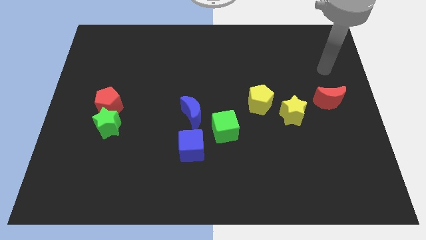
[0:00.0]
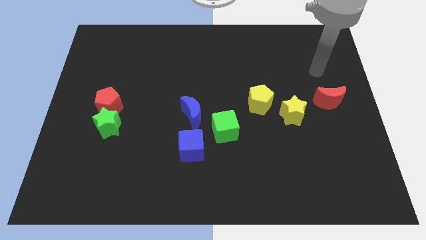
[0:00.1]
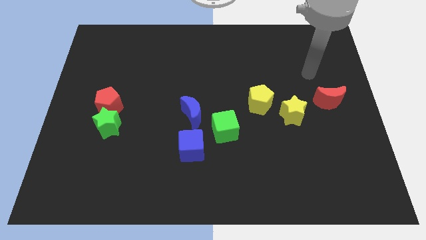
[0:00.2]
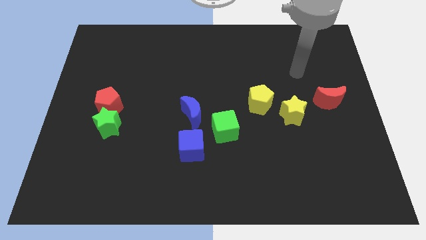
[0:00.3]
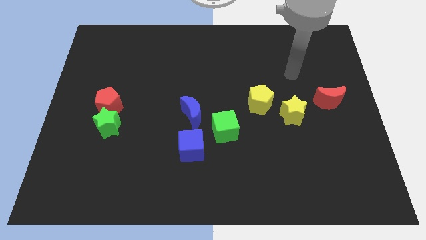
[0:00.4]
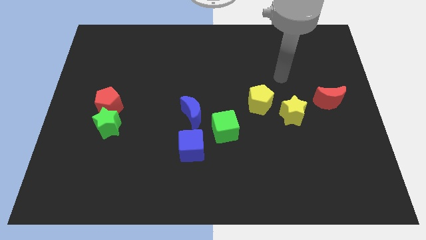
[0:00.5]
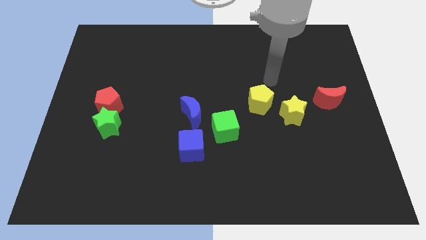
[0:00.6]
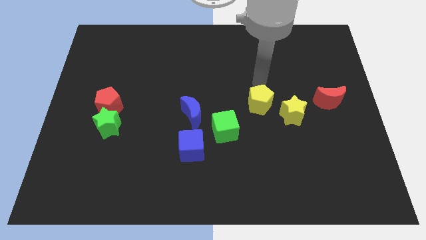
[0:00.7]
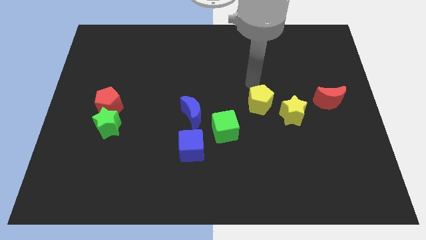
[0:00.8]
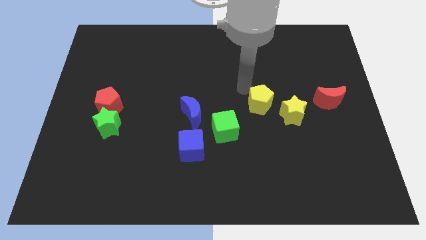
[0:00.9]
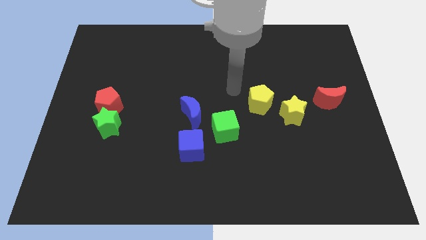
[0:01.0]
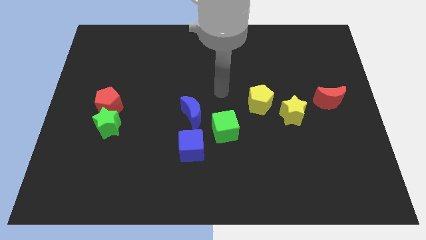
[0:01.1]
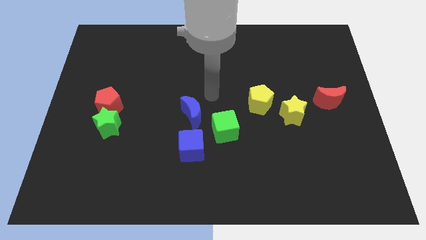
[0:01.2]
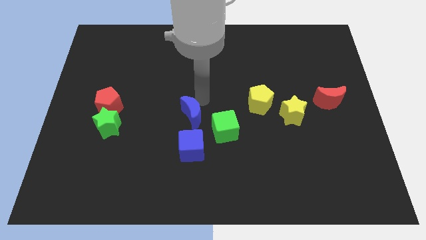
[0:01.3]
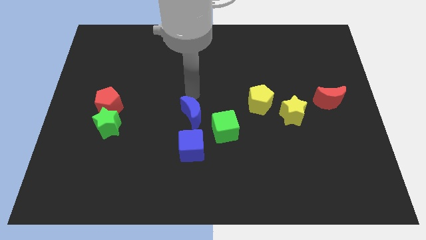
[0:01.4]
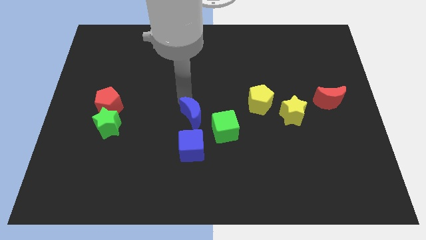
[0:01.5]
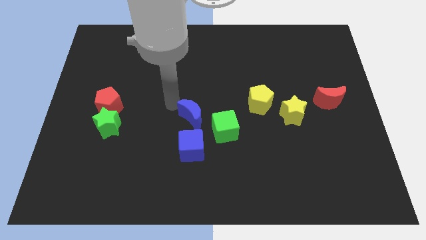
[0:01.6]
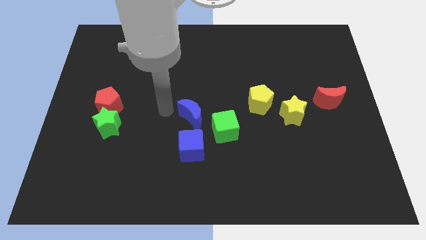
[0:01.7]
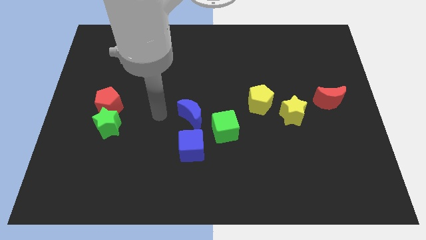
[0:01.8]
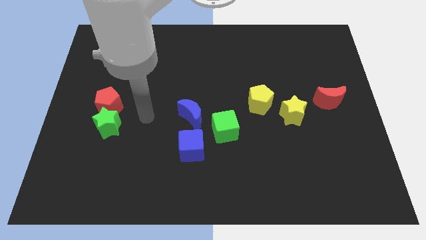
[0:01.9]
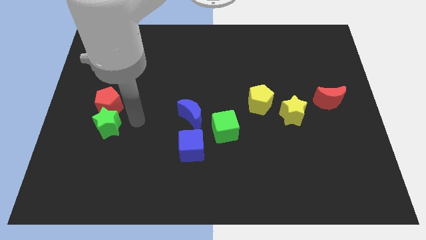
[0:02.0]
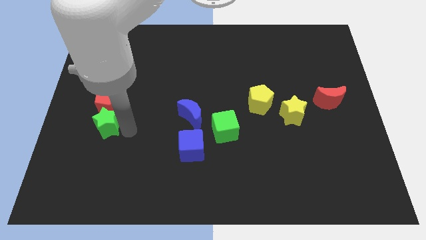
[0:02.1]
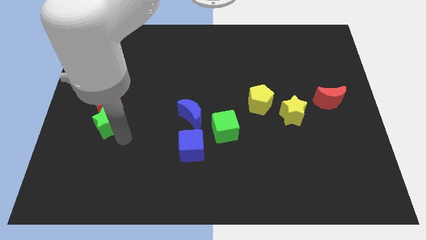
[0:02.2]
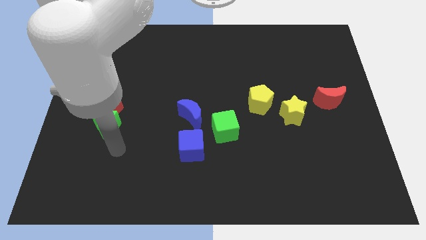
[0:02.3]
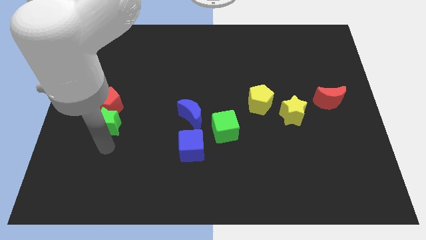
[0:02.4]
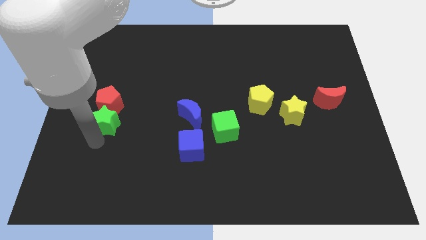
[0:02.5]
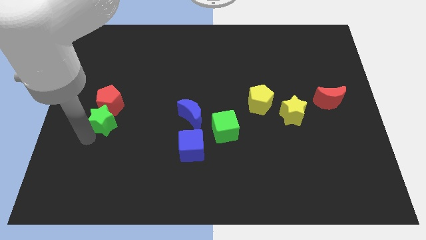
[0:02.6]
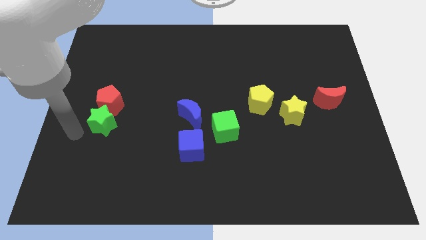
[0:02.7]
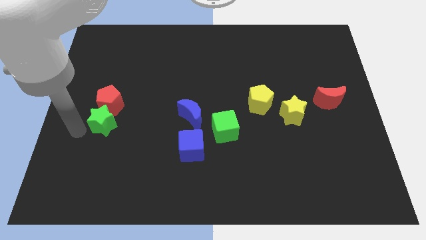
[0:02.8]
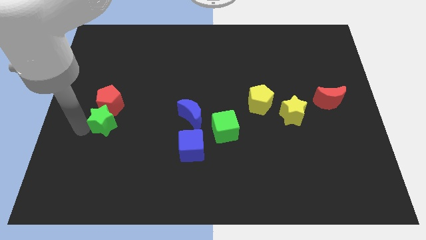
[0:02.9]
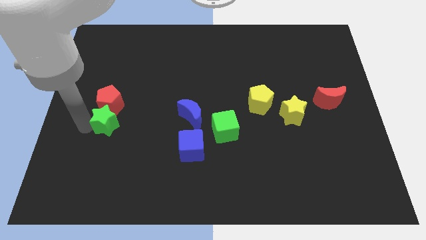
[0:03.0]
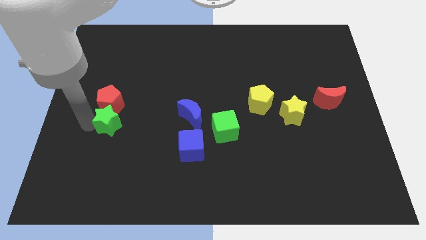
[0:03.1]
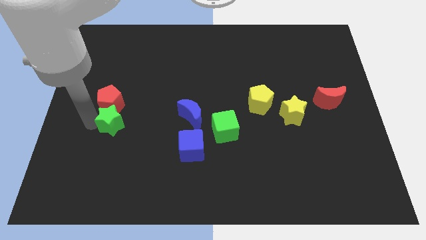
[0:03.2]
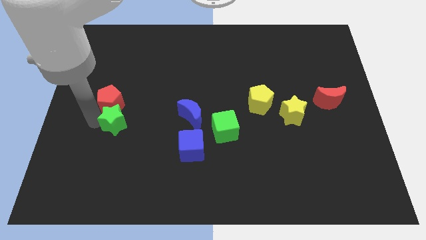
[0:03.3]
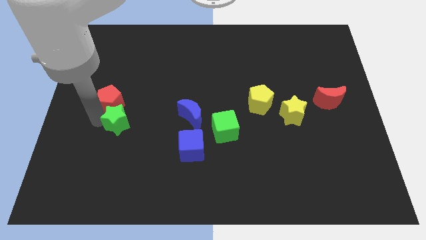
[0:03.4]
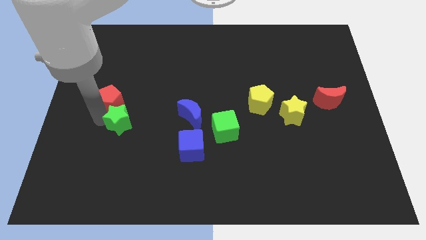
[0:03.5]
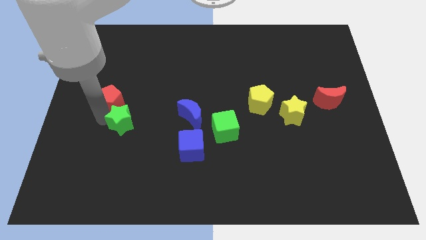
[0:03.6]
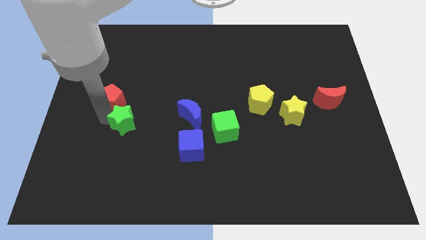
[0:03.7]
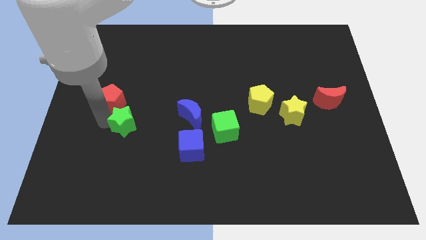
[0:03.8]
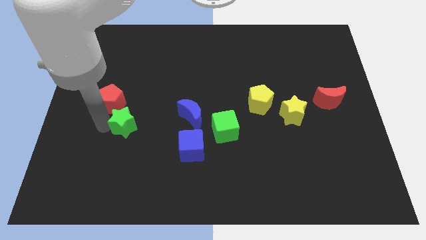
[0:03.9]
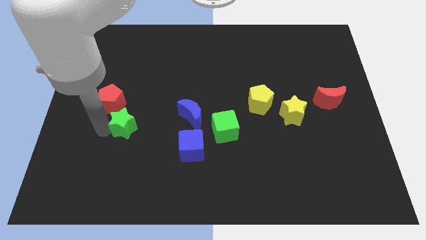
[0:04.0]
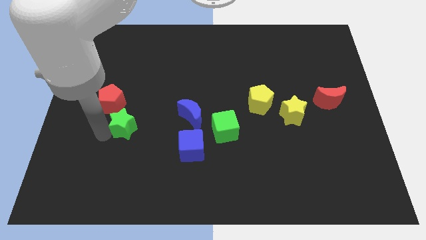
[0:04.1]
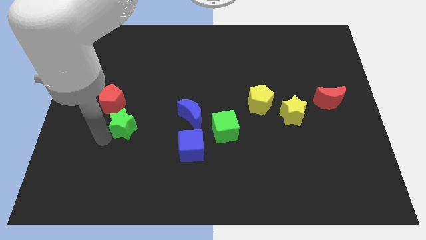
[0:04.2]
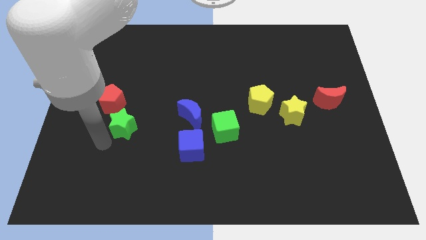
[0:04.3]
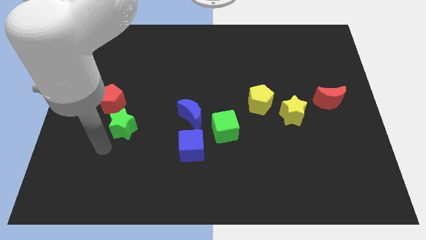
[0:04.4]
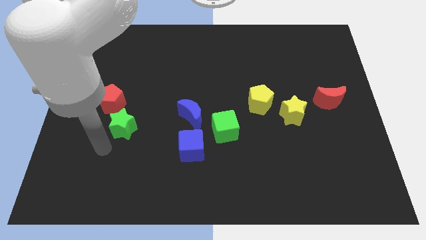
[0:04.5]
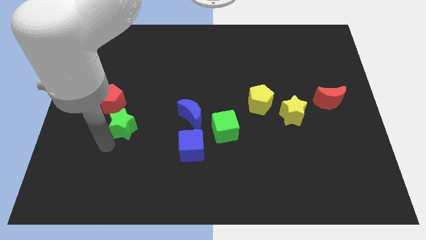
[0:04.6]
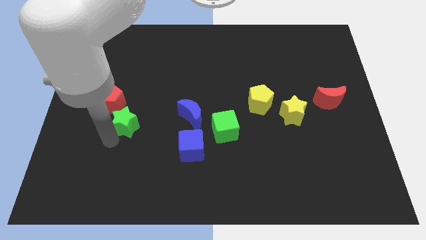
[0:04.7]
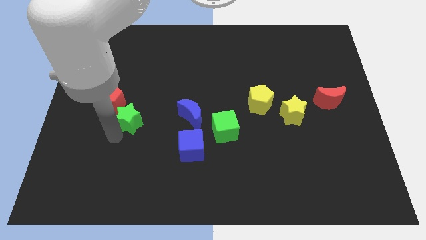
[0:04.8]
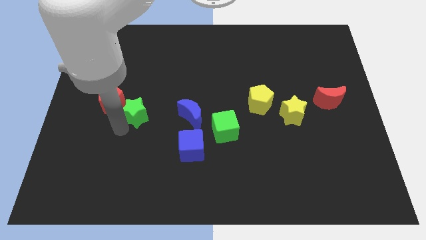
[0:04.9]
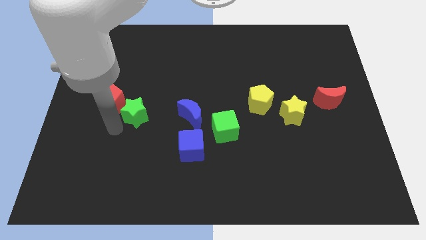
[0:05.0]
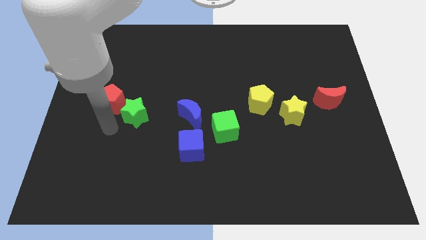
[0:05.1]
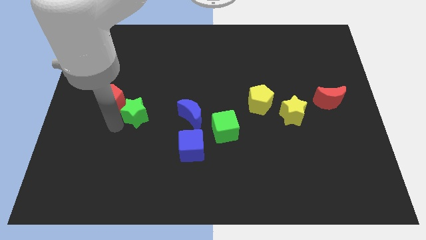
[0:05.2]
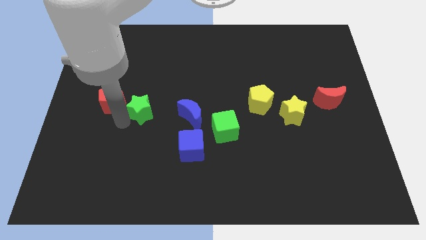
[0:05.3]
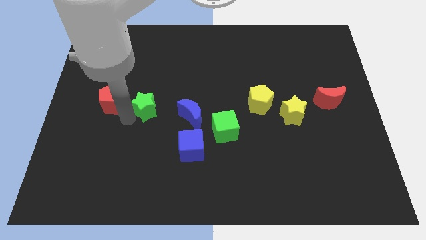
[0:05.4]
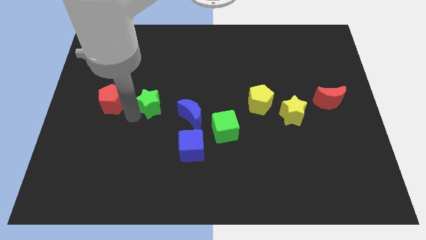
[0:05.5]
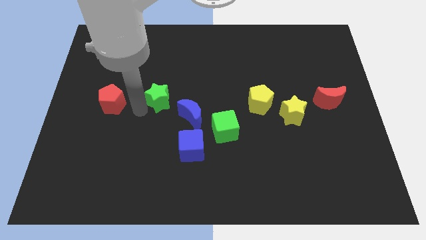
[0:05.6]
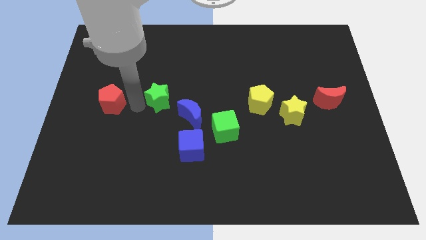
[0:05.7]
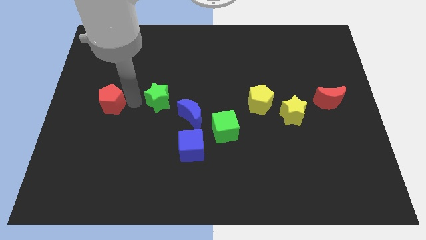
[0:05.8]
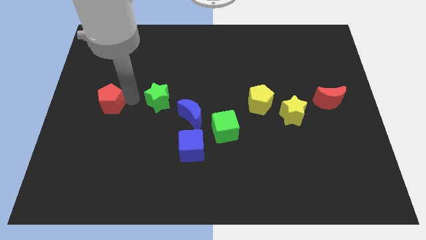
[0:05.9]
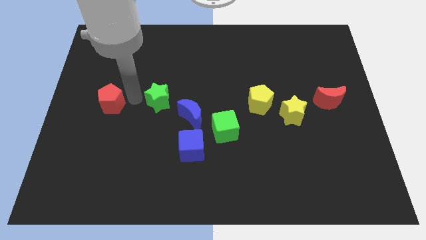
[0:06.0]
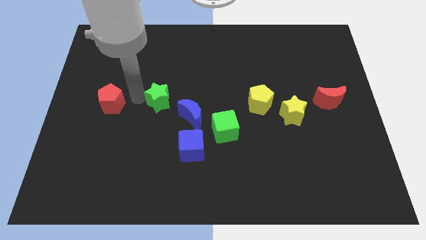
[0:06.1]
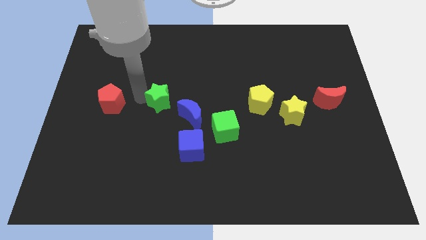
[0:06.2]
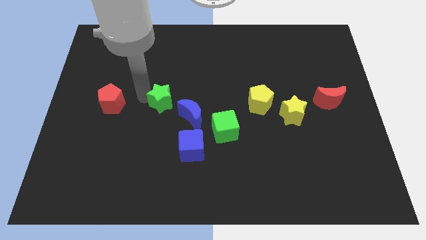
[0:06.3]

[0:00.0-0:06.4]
put the green star to the middle of the board
